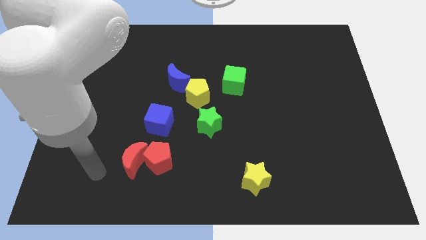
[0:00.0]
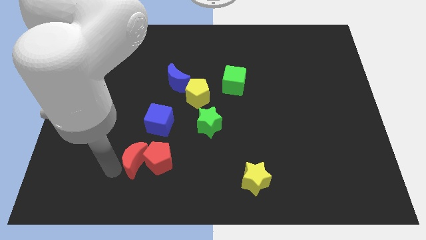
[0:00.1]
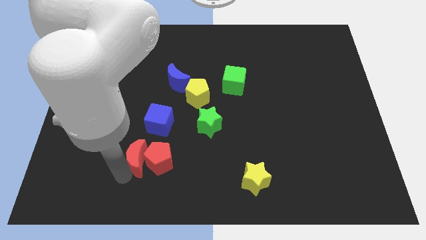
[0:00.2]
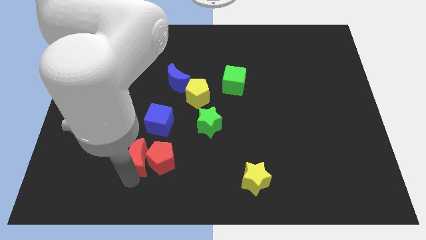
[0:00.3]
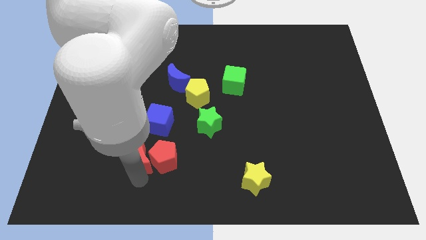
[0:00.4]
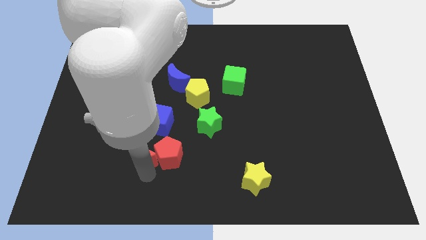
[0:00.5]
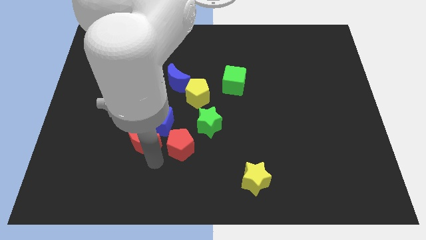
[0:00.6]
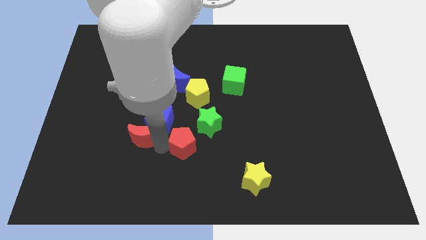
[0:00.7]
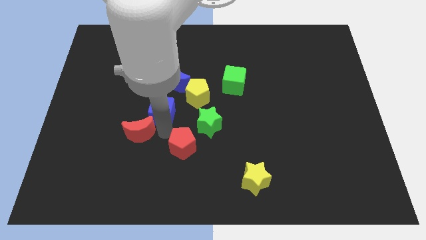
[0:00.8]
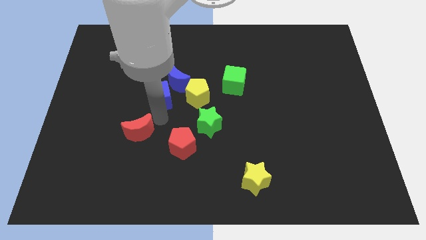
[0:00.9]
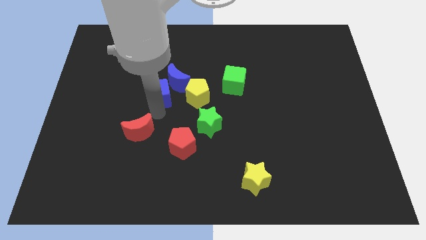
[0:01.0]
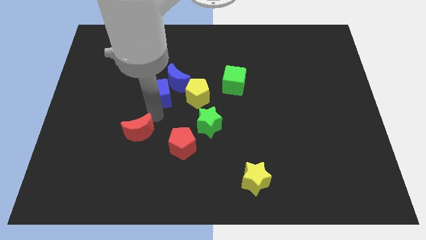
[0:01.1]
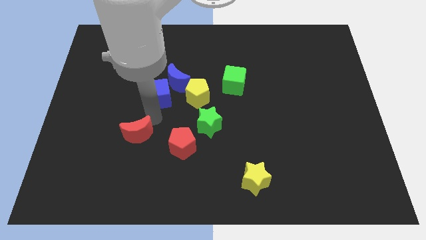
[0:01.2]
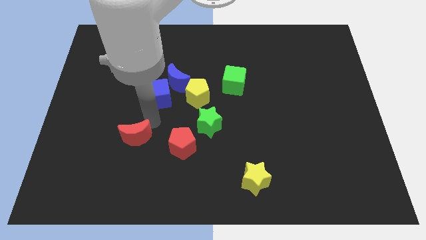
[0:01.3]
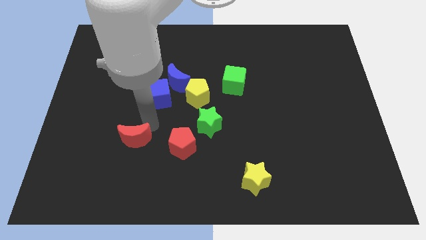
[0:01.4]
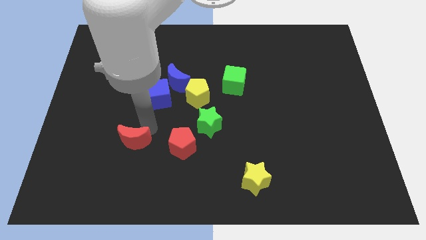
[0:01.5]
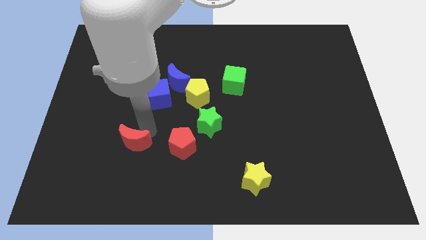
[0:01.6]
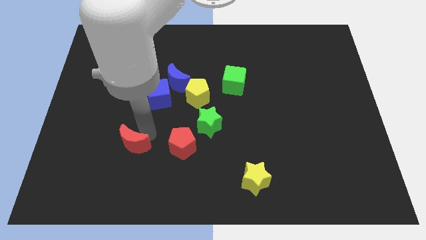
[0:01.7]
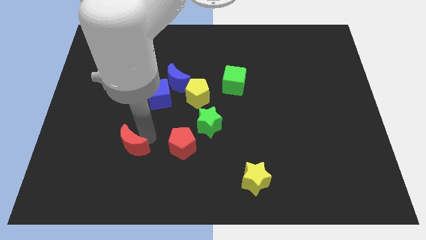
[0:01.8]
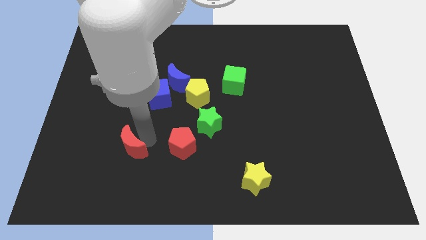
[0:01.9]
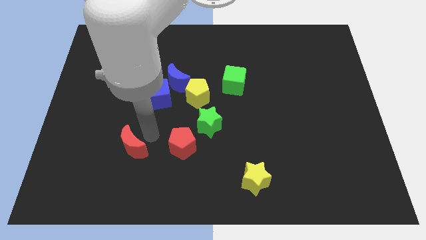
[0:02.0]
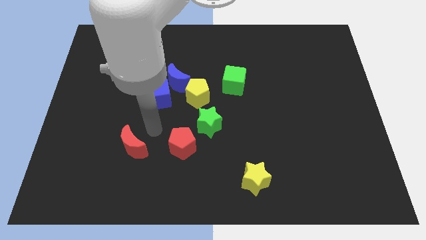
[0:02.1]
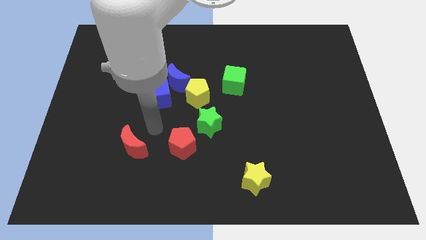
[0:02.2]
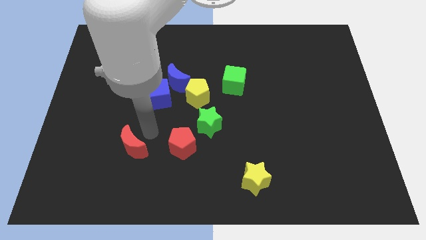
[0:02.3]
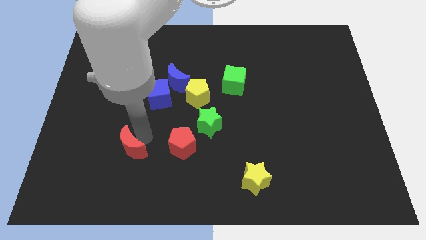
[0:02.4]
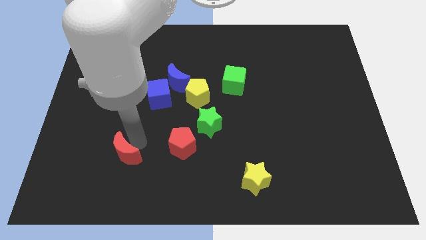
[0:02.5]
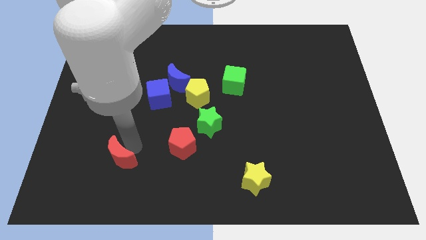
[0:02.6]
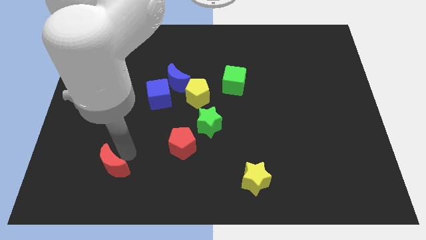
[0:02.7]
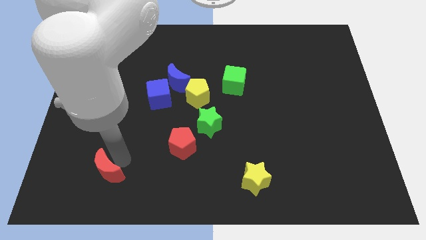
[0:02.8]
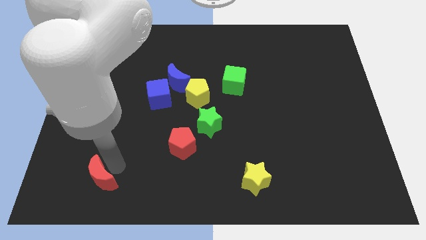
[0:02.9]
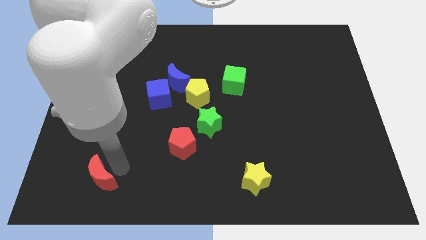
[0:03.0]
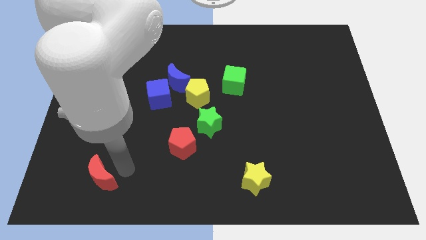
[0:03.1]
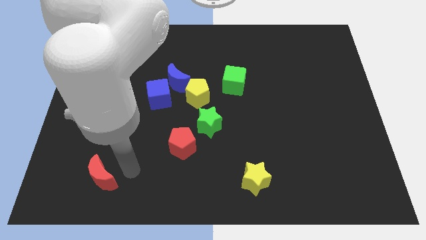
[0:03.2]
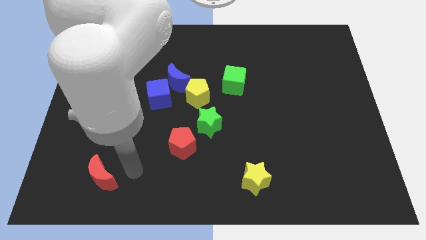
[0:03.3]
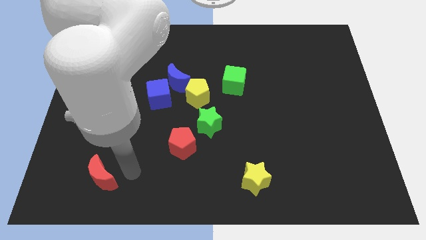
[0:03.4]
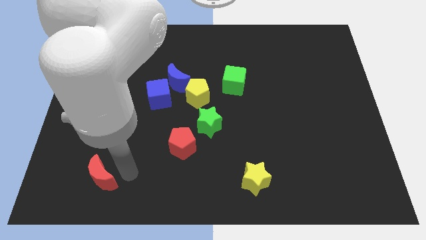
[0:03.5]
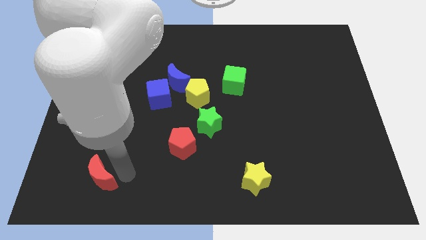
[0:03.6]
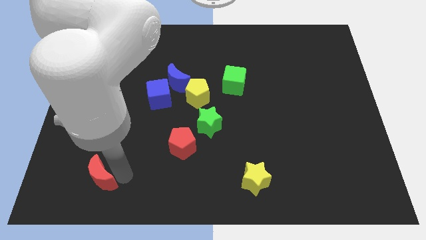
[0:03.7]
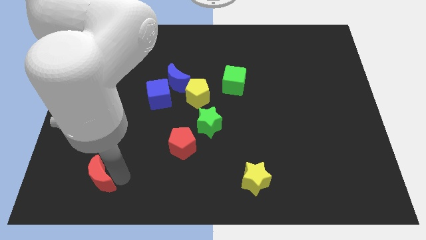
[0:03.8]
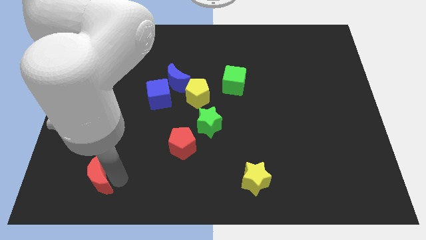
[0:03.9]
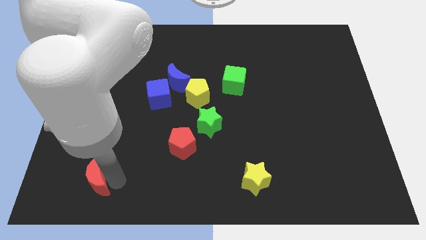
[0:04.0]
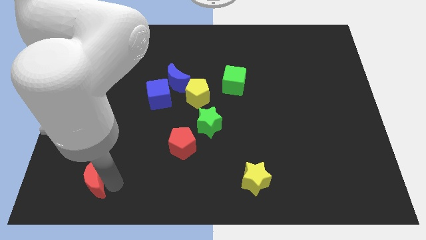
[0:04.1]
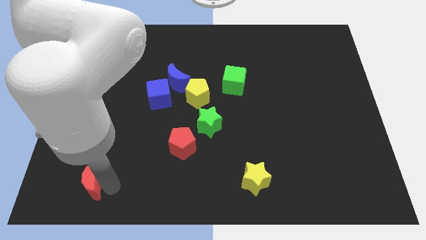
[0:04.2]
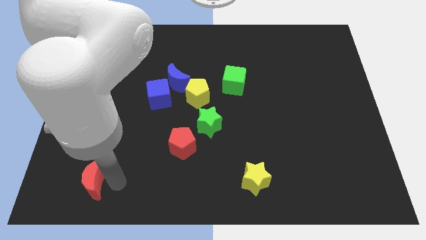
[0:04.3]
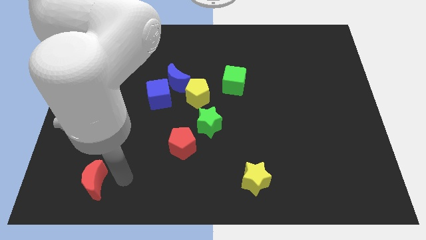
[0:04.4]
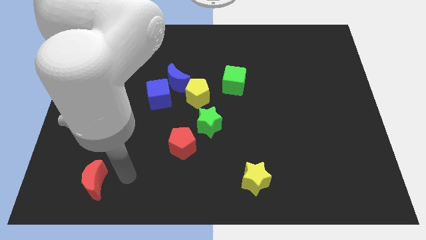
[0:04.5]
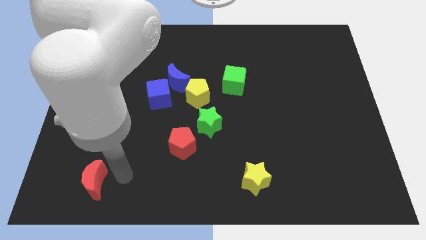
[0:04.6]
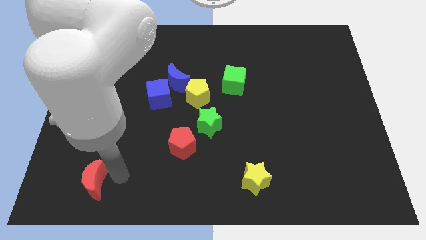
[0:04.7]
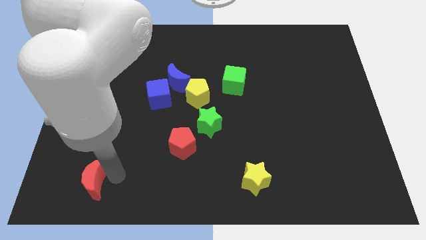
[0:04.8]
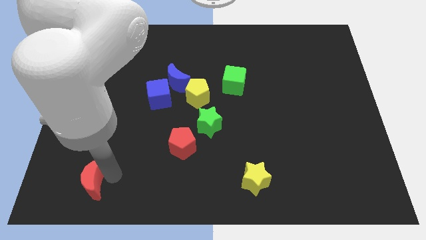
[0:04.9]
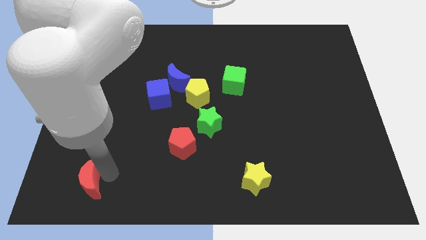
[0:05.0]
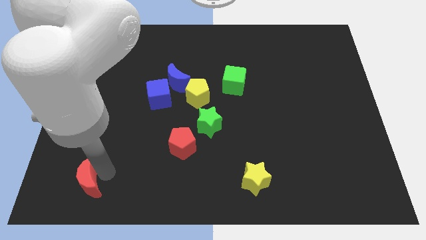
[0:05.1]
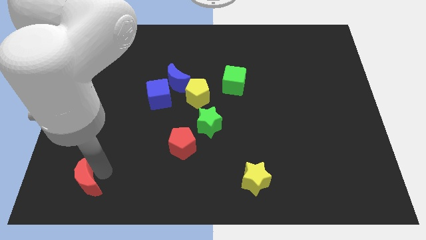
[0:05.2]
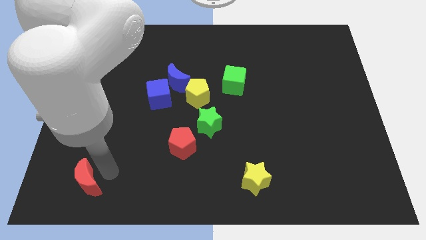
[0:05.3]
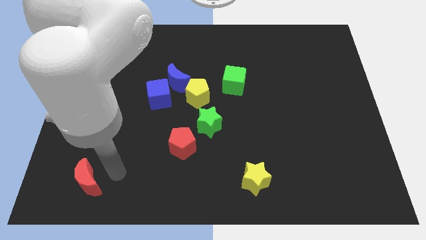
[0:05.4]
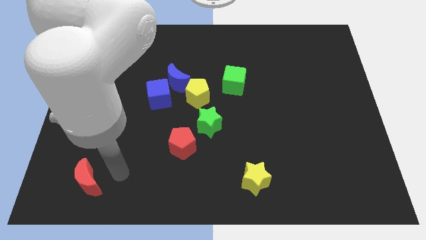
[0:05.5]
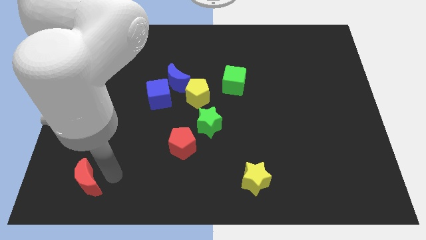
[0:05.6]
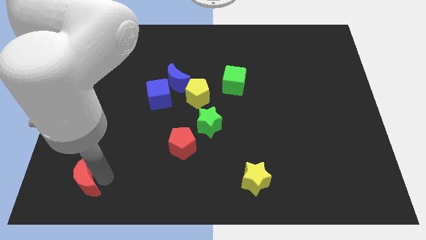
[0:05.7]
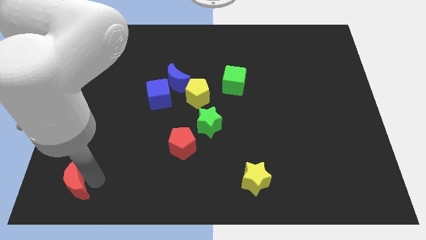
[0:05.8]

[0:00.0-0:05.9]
slide the red moon to the bottom left

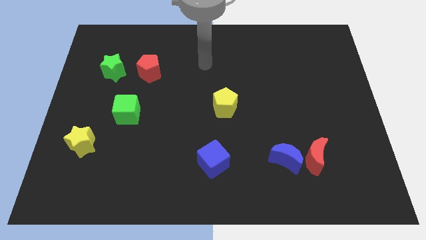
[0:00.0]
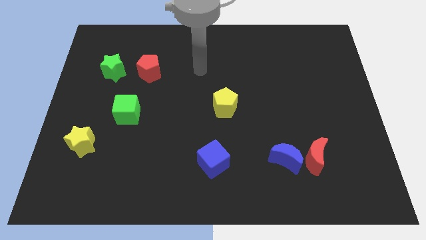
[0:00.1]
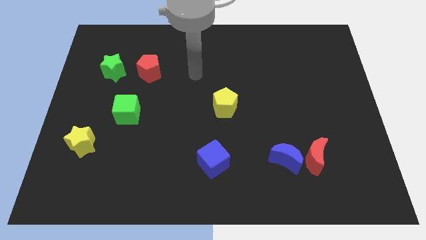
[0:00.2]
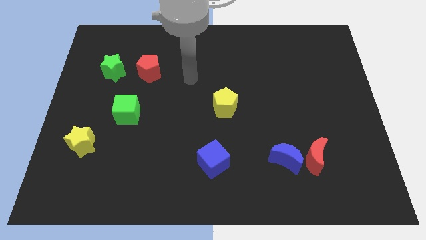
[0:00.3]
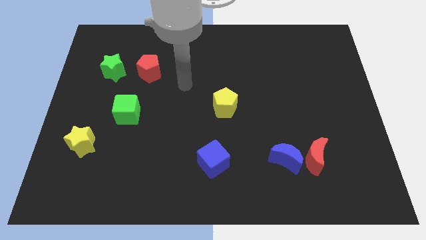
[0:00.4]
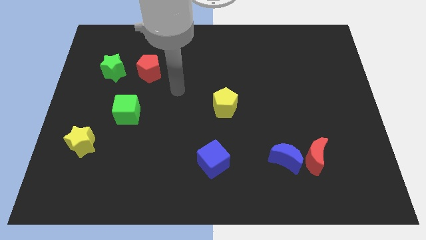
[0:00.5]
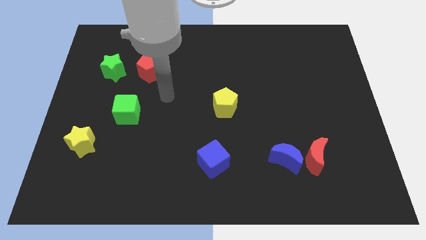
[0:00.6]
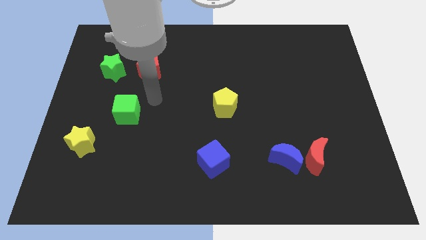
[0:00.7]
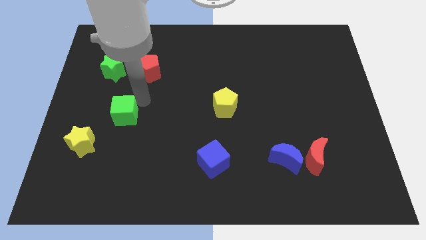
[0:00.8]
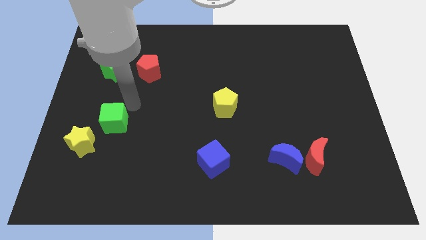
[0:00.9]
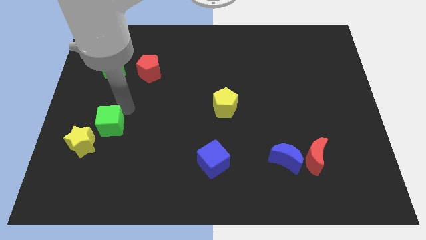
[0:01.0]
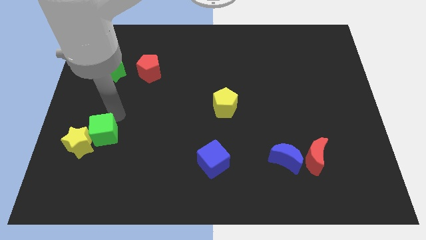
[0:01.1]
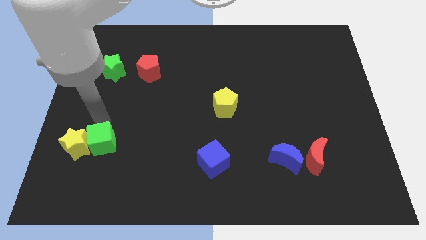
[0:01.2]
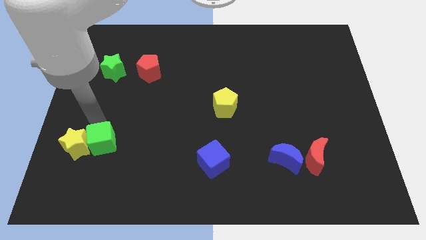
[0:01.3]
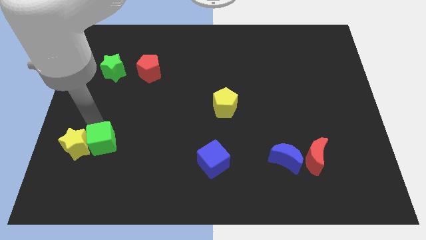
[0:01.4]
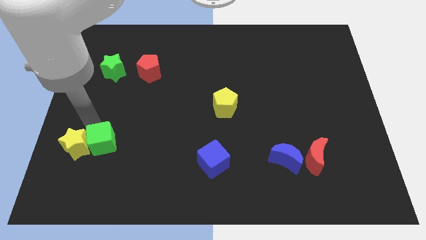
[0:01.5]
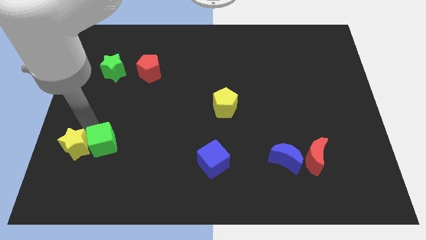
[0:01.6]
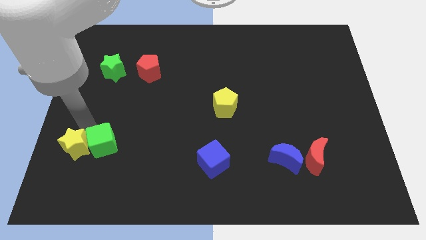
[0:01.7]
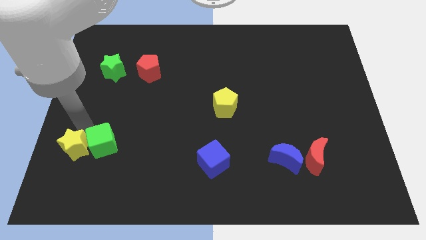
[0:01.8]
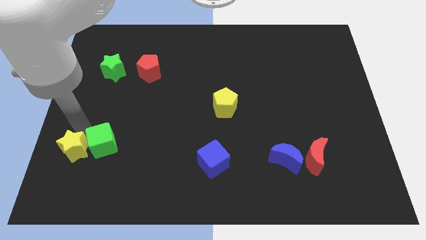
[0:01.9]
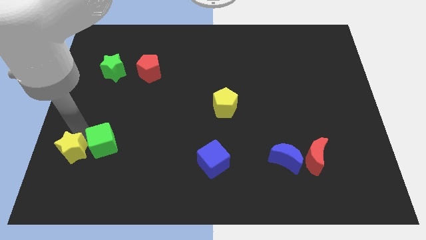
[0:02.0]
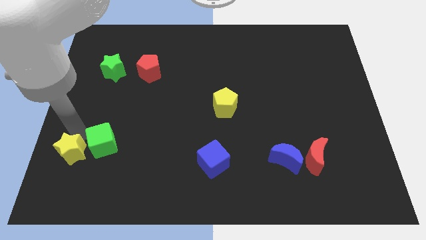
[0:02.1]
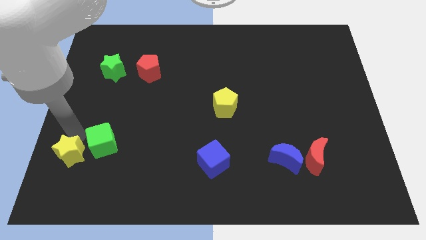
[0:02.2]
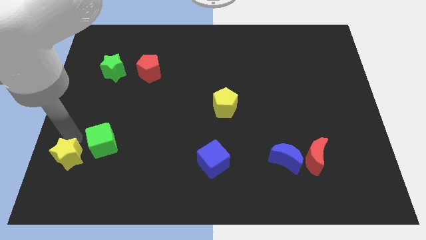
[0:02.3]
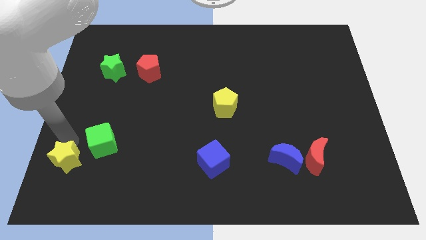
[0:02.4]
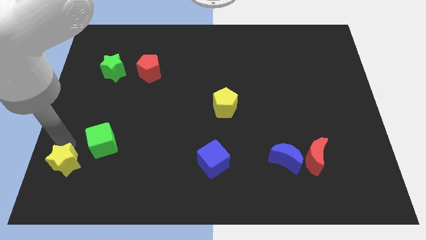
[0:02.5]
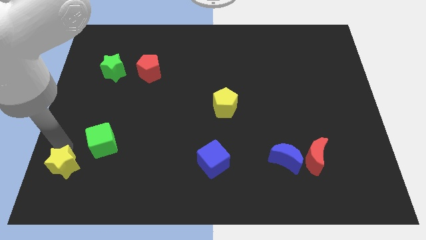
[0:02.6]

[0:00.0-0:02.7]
push the yellow star to the lower left corner
